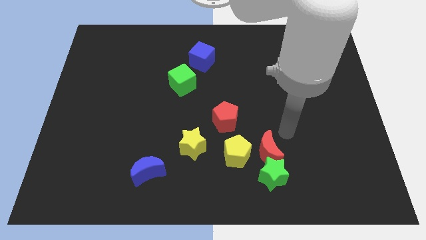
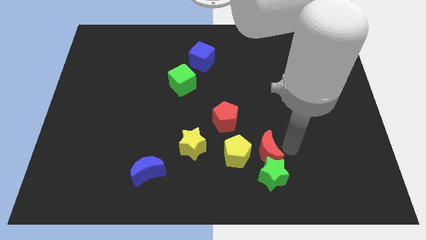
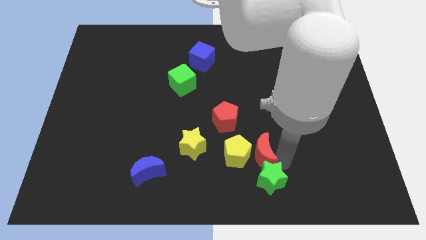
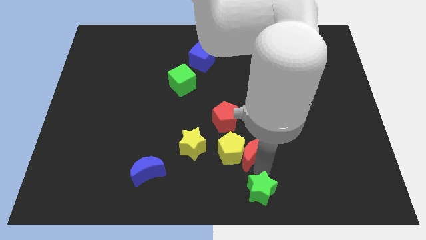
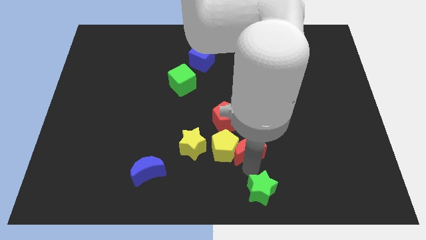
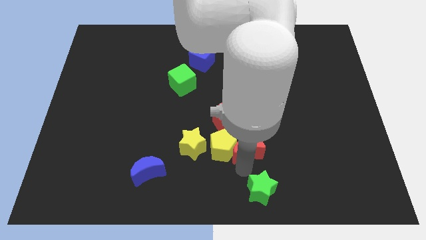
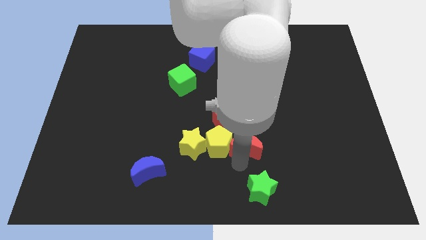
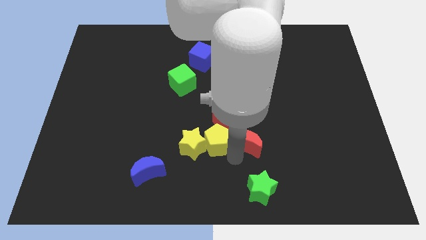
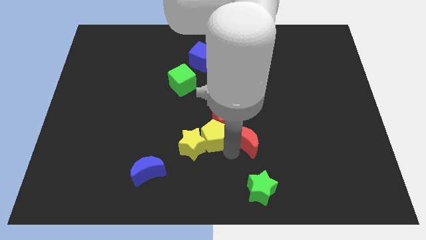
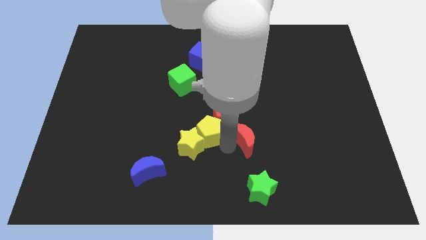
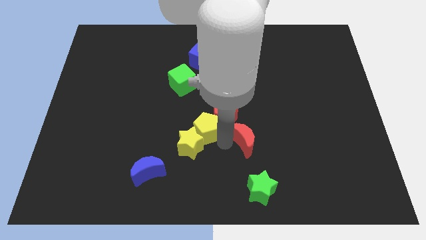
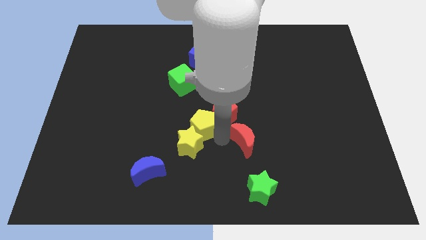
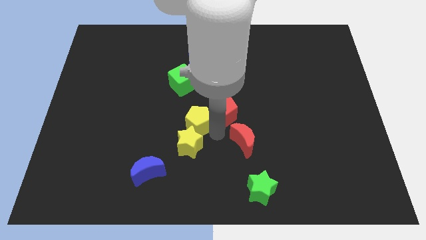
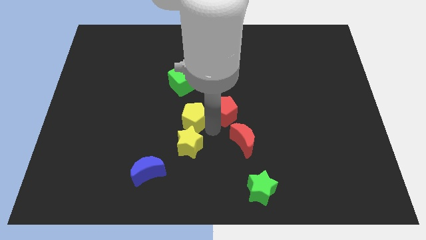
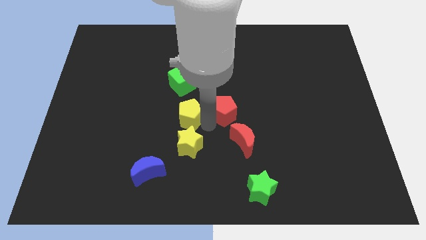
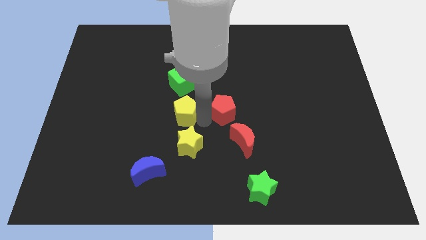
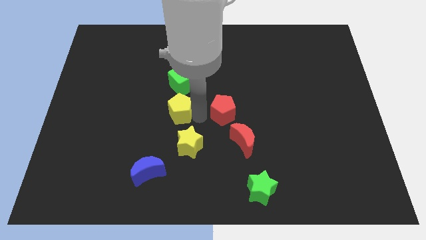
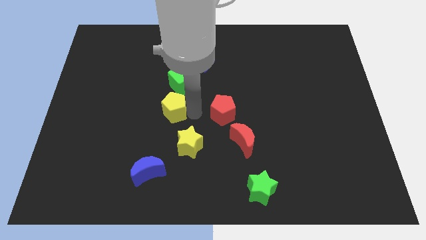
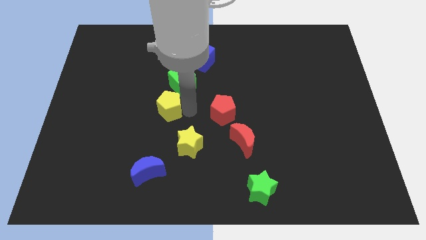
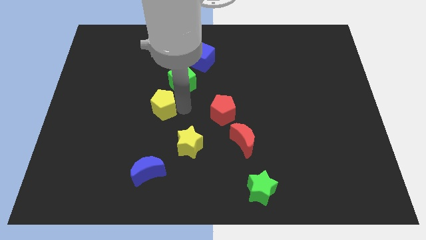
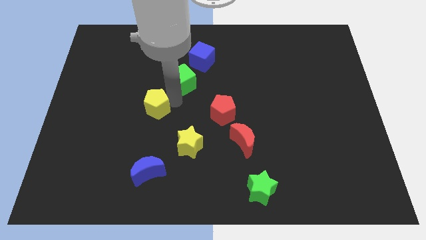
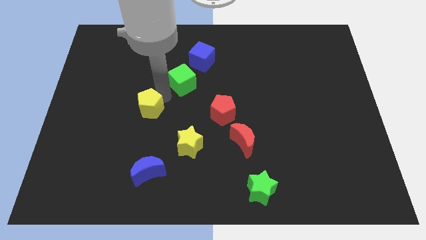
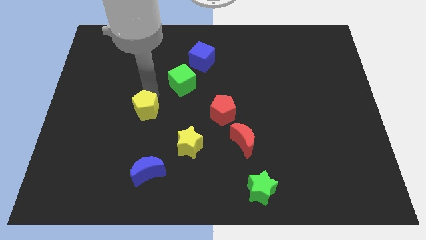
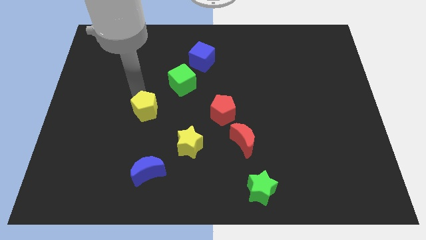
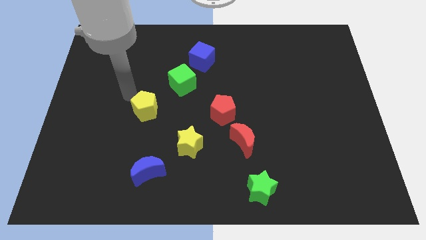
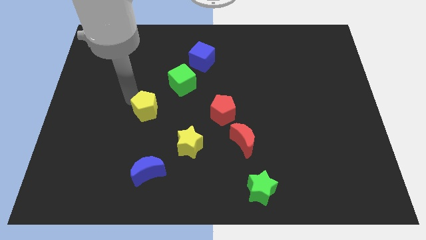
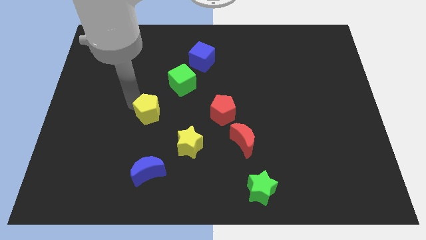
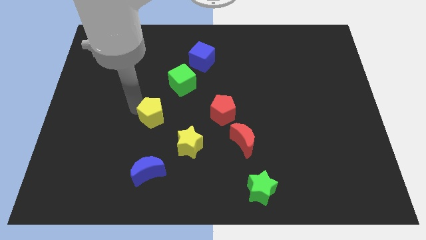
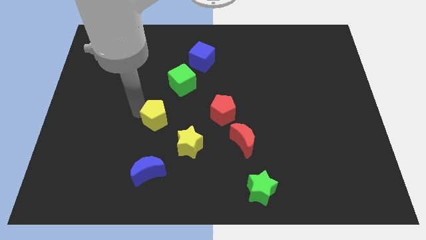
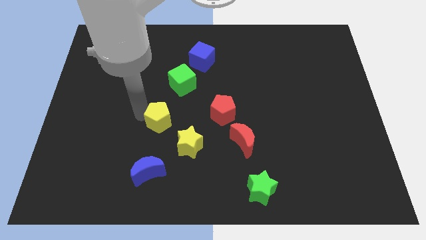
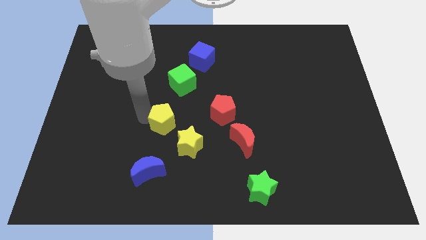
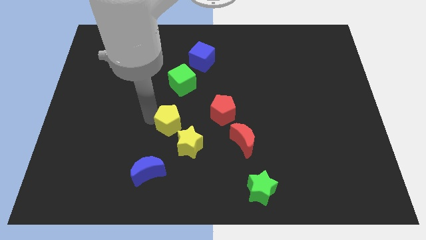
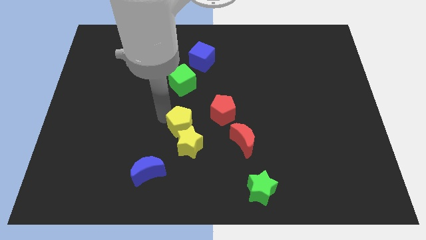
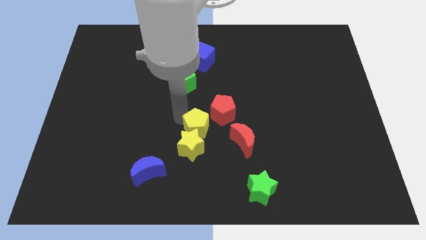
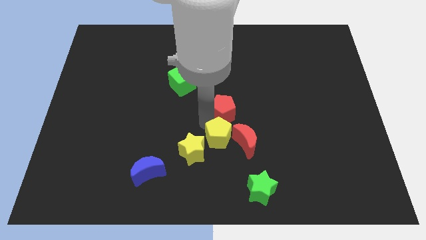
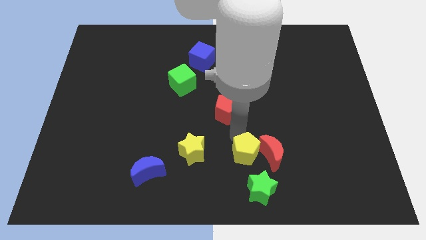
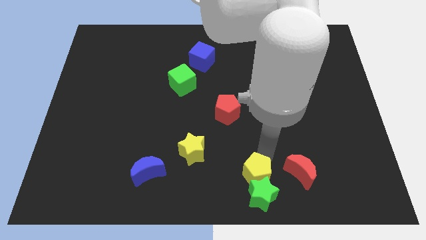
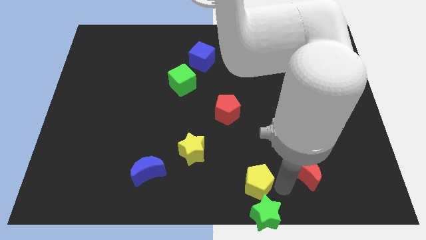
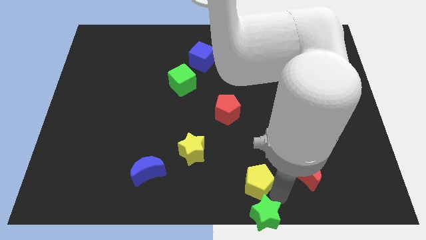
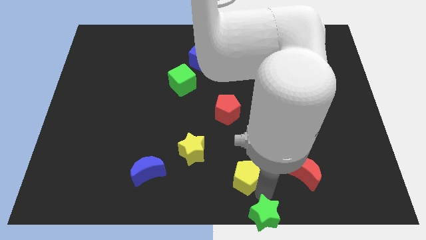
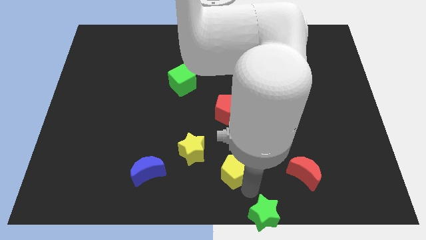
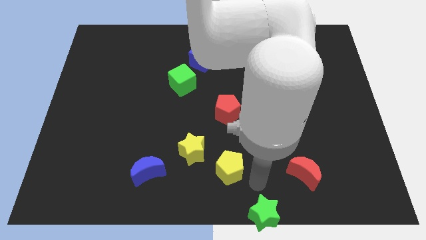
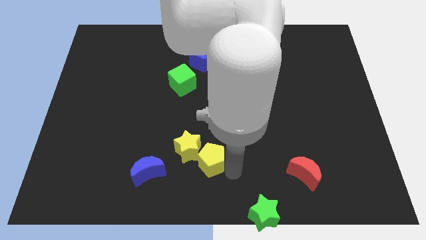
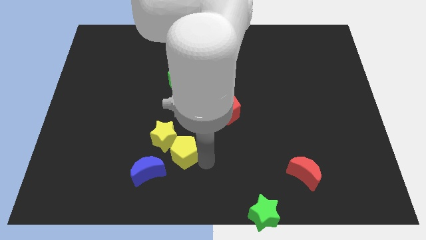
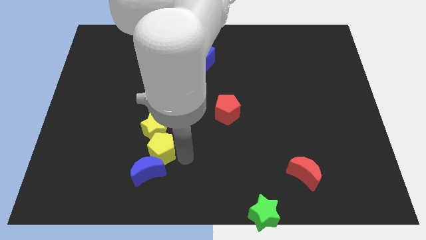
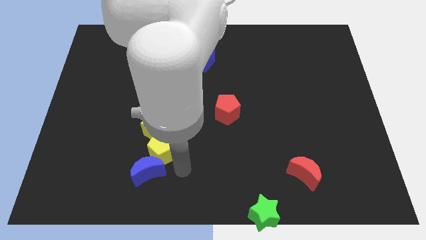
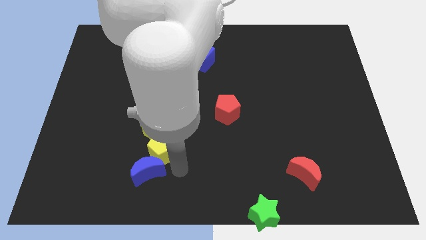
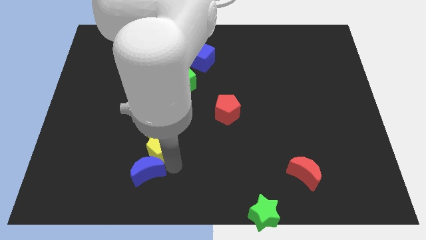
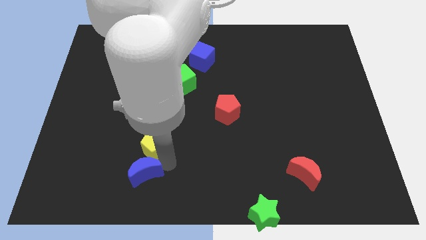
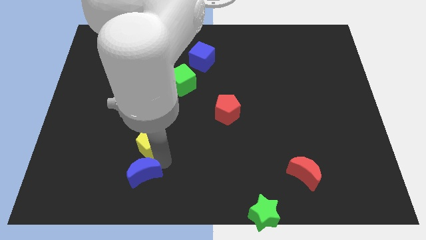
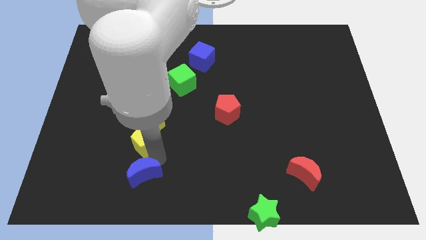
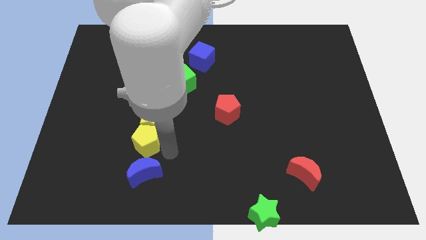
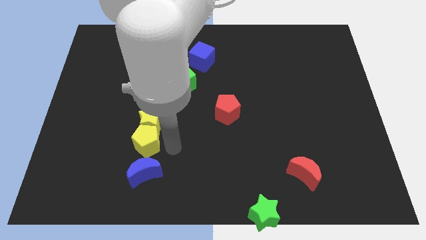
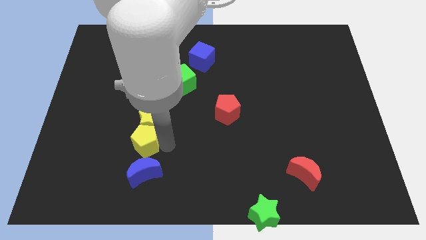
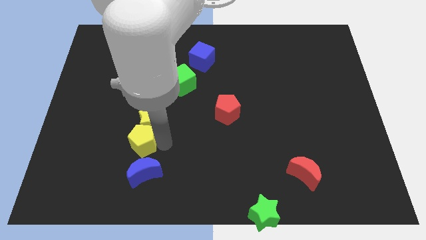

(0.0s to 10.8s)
push the yellow pentagon to the left

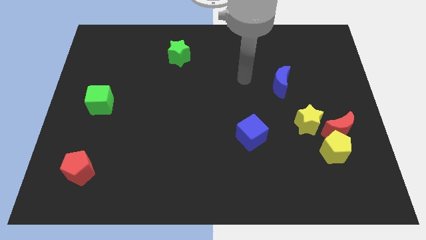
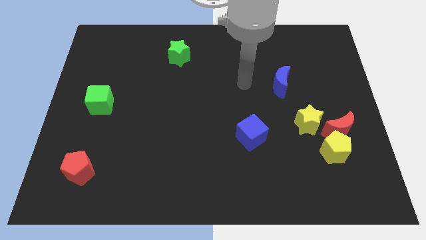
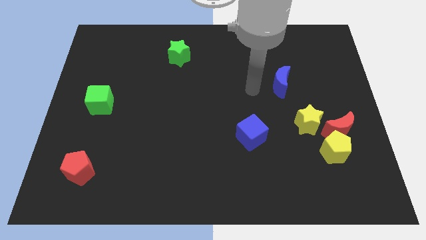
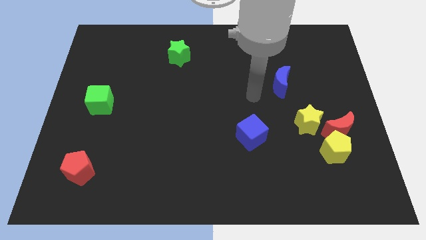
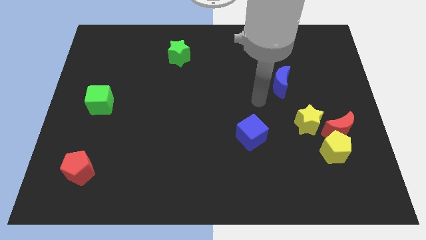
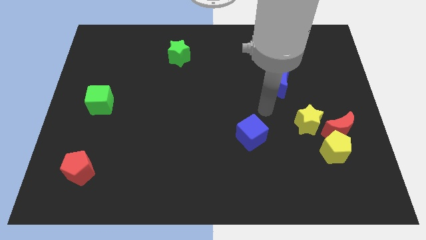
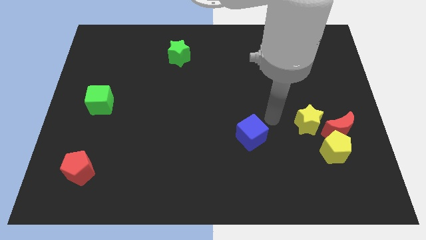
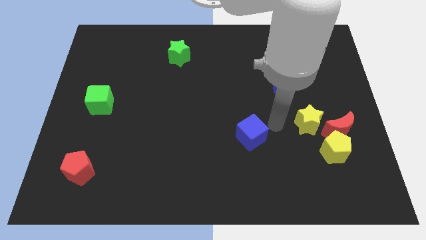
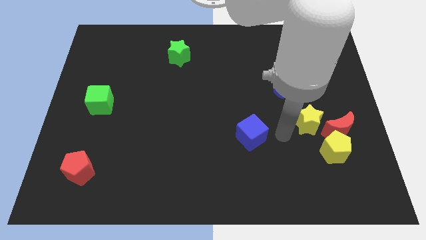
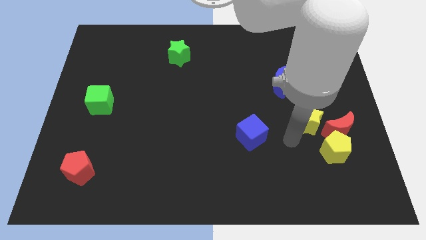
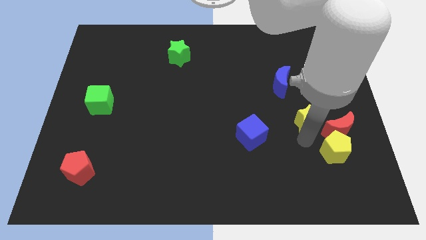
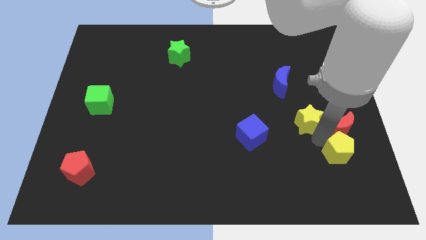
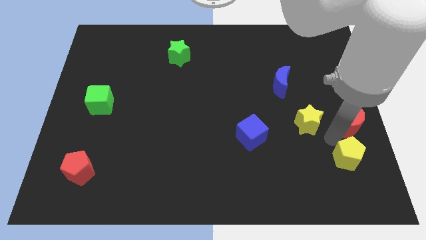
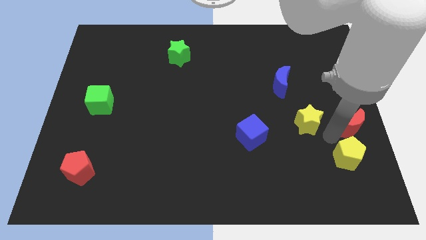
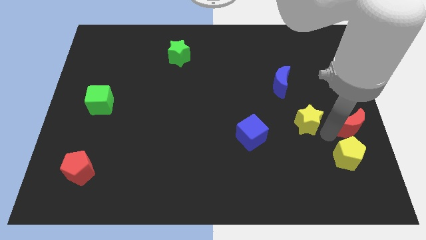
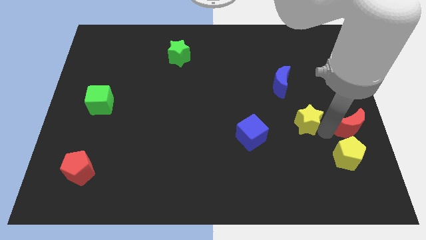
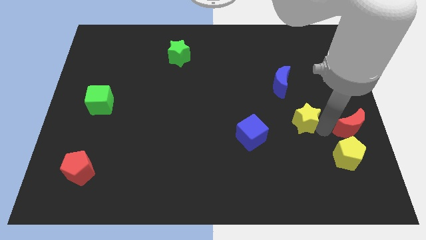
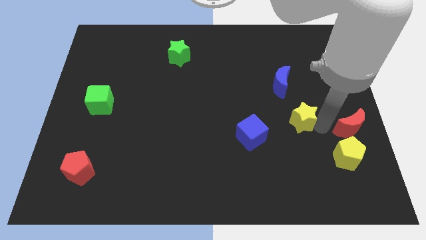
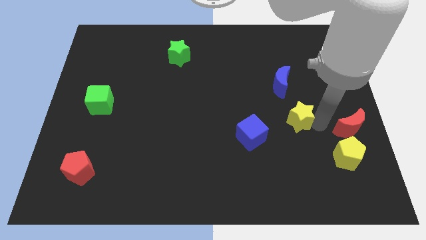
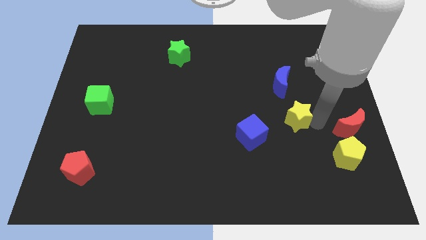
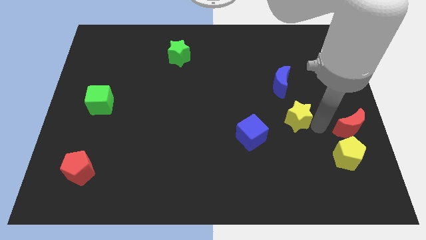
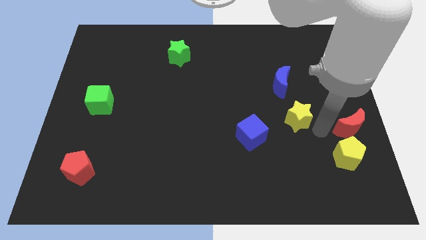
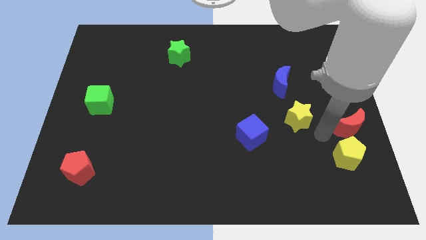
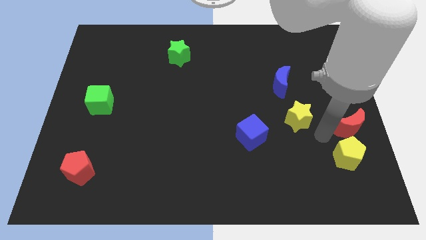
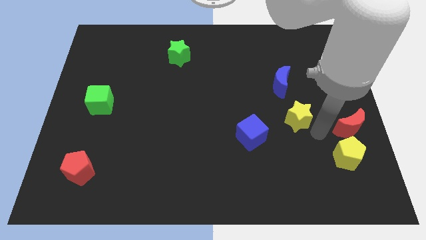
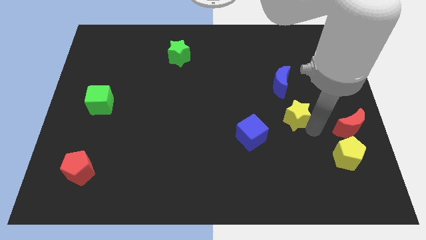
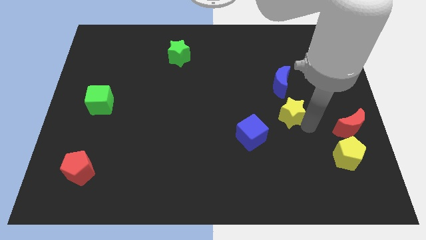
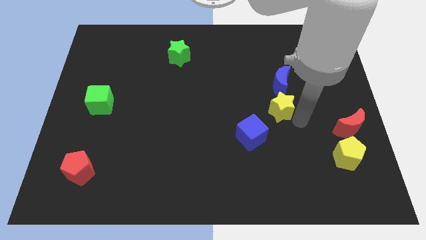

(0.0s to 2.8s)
slightly move the yellow star up and left
